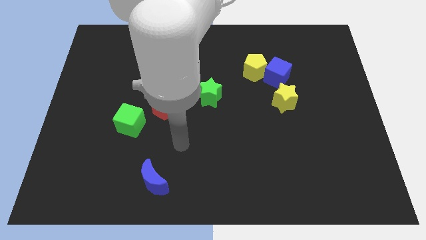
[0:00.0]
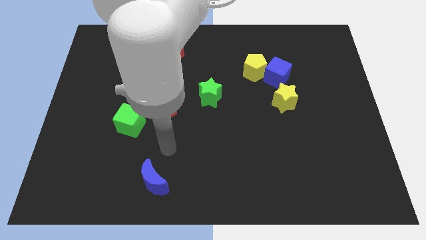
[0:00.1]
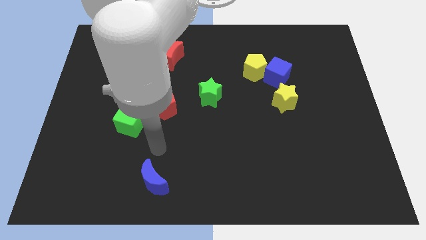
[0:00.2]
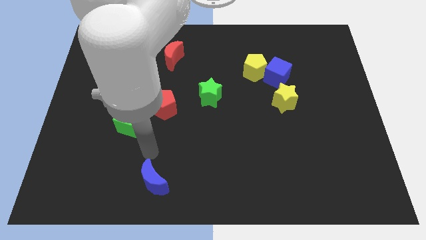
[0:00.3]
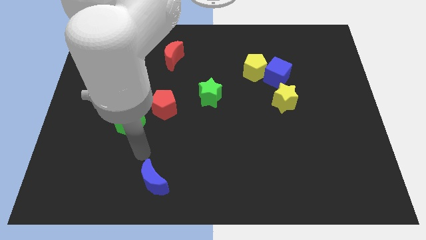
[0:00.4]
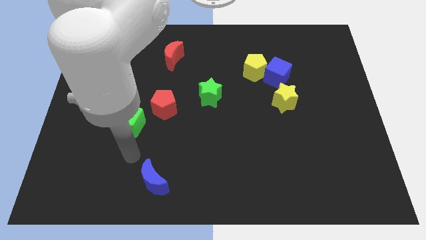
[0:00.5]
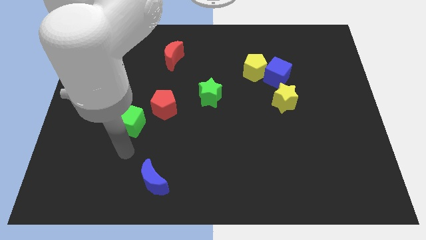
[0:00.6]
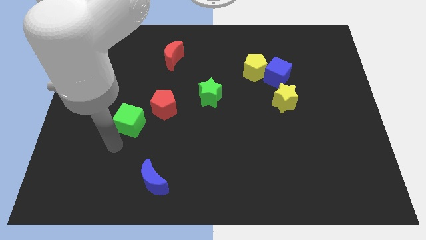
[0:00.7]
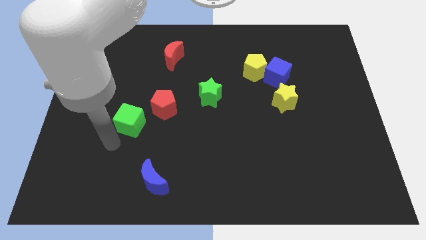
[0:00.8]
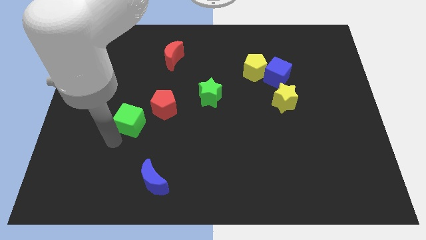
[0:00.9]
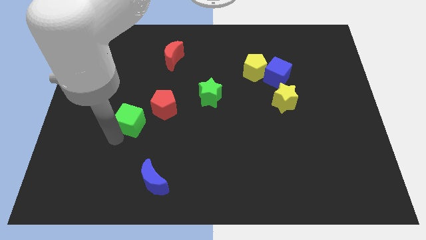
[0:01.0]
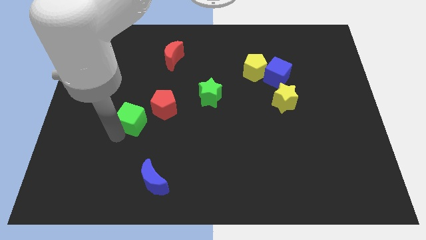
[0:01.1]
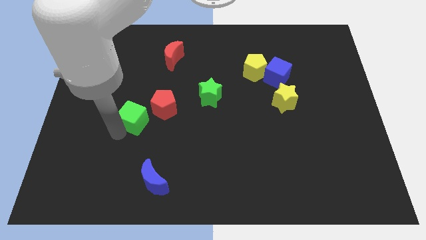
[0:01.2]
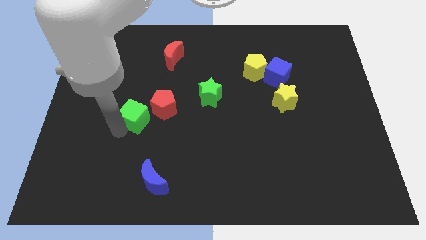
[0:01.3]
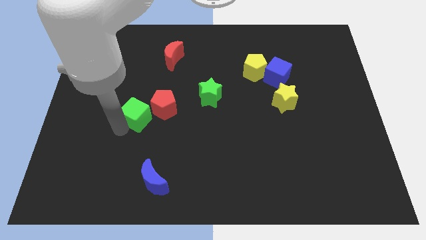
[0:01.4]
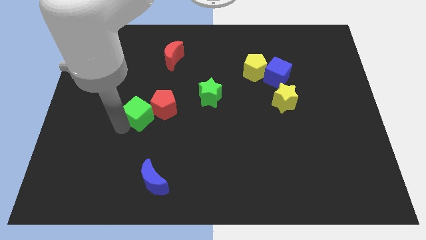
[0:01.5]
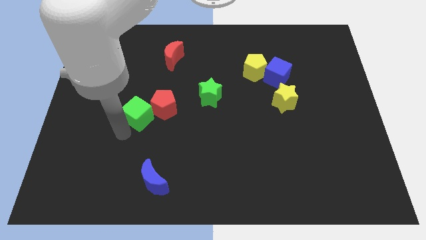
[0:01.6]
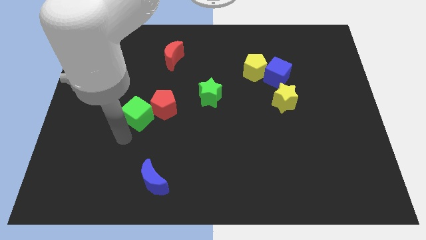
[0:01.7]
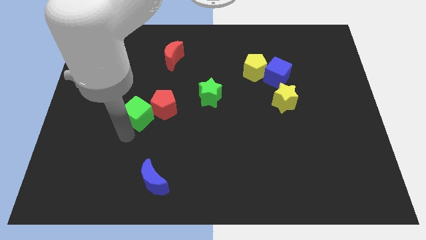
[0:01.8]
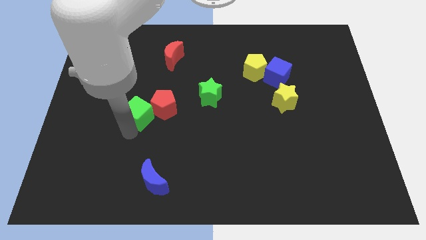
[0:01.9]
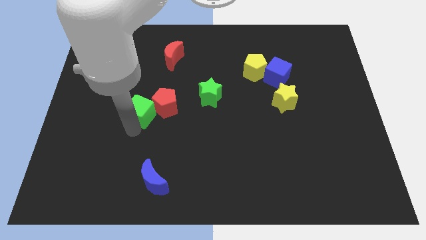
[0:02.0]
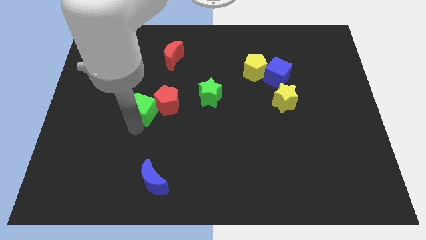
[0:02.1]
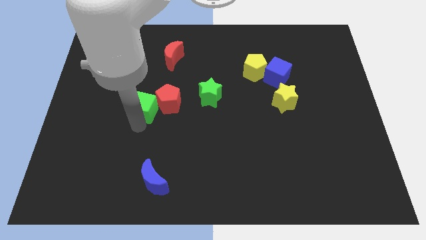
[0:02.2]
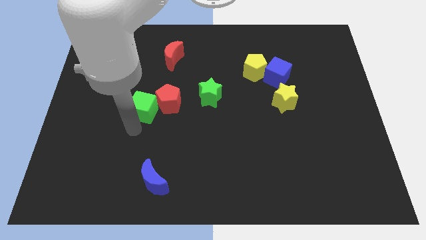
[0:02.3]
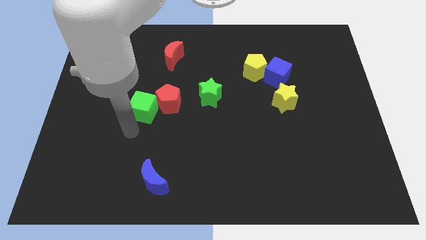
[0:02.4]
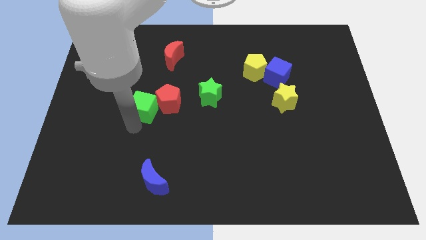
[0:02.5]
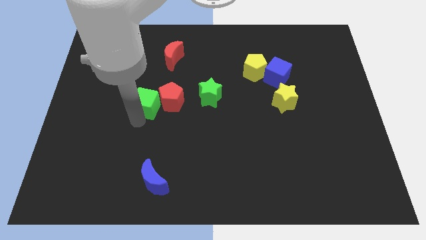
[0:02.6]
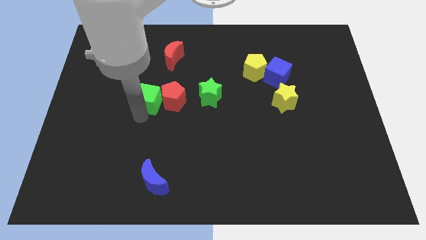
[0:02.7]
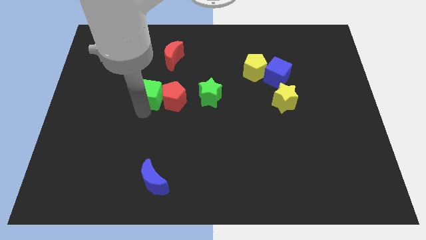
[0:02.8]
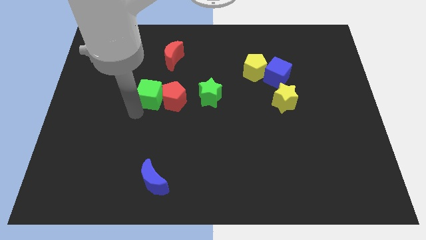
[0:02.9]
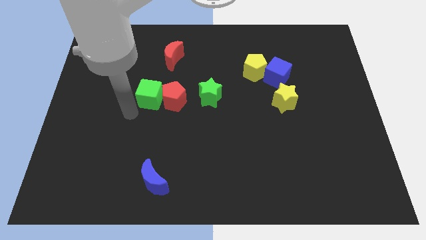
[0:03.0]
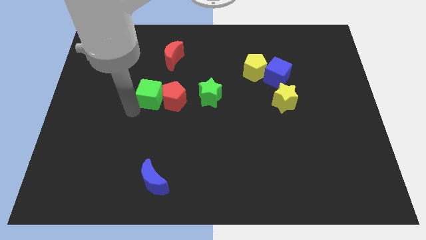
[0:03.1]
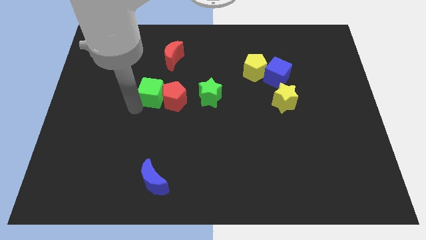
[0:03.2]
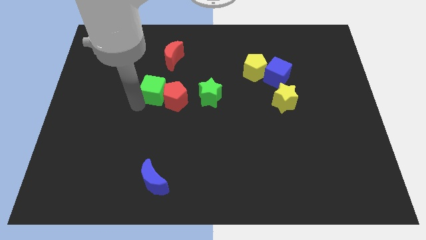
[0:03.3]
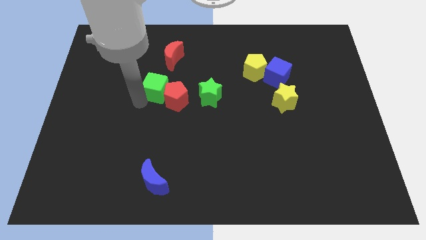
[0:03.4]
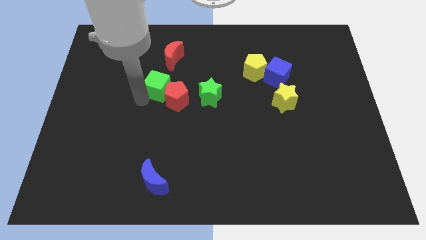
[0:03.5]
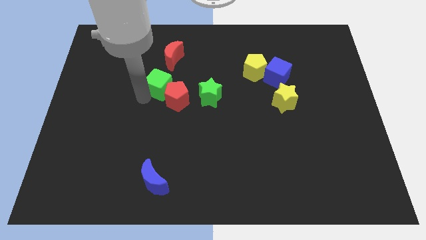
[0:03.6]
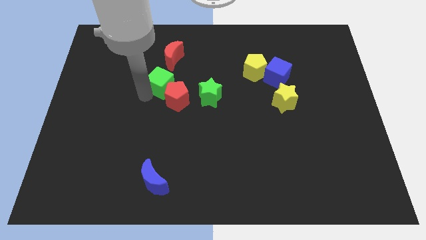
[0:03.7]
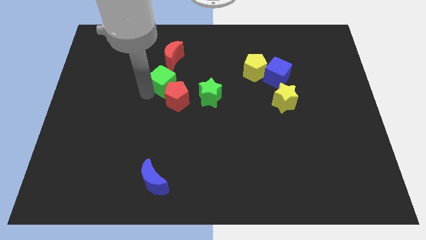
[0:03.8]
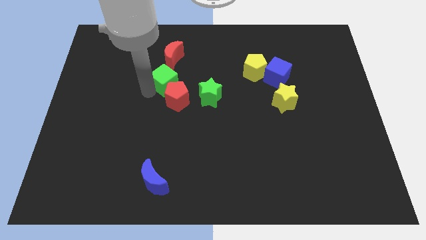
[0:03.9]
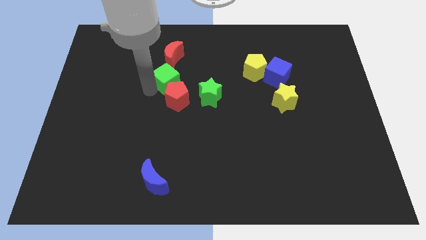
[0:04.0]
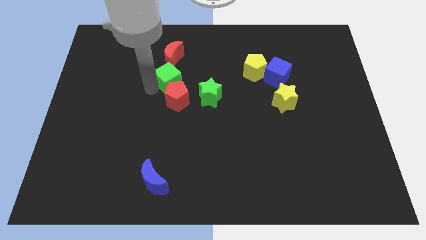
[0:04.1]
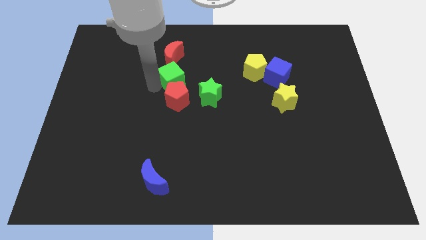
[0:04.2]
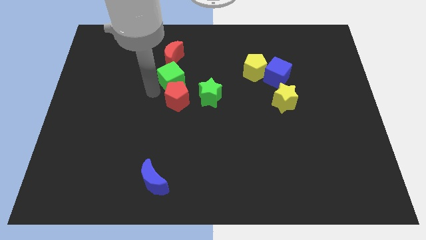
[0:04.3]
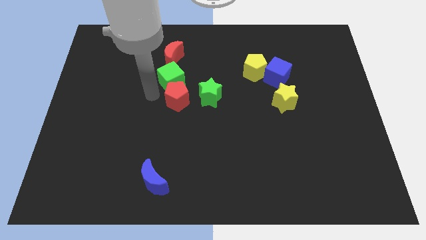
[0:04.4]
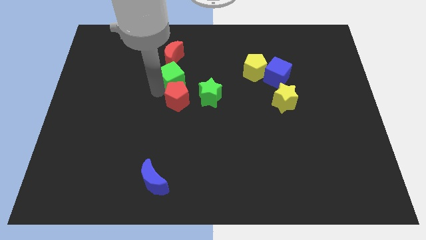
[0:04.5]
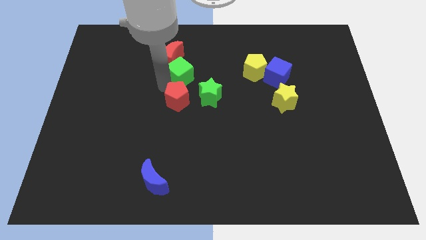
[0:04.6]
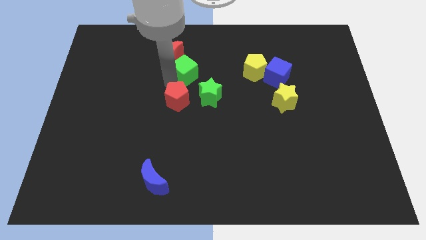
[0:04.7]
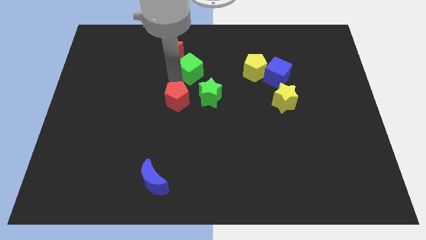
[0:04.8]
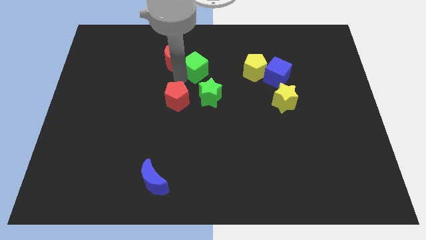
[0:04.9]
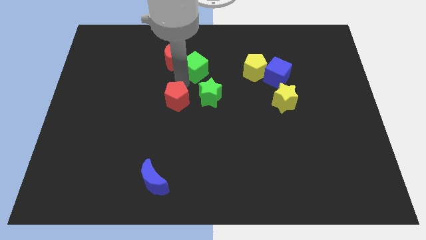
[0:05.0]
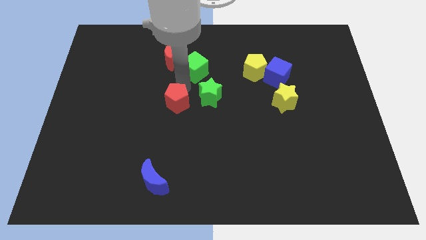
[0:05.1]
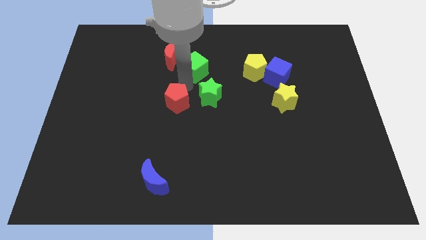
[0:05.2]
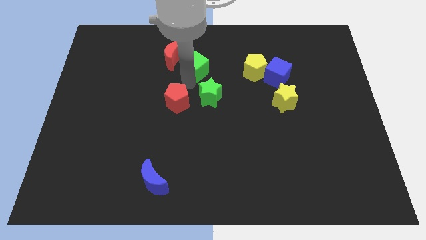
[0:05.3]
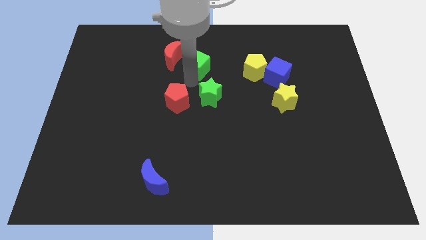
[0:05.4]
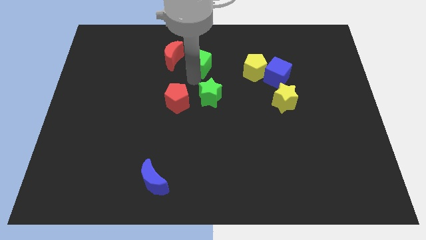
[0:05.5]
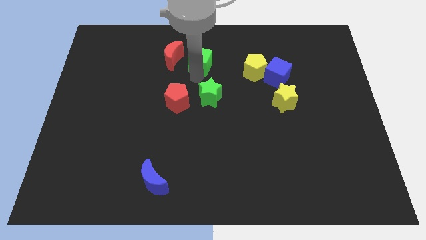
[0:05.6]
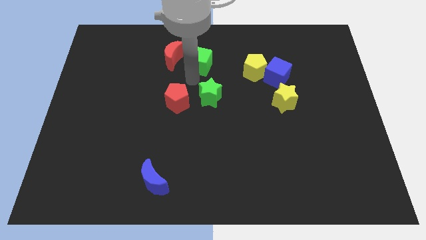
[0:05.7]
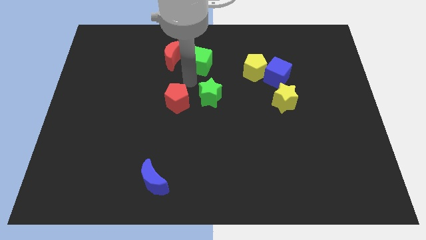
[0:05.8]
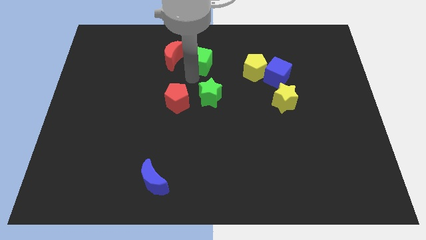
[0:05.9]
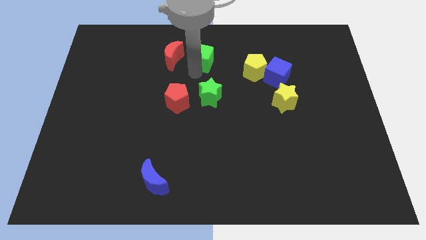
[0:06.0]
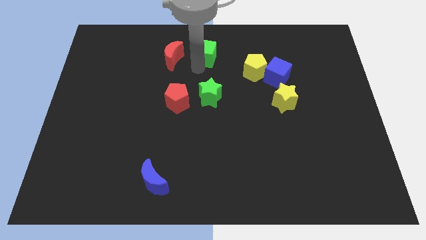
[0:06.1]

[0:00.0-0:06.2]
put the green cube to the towards your base
